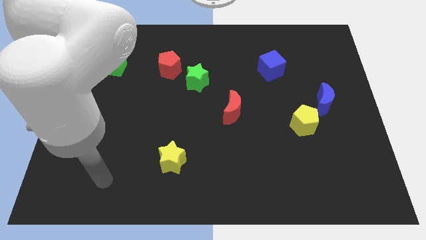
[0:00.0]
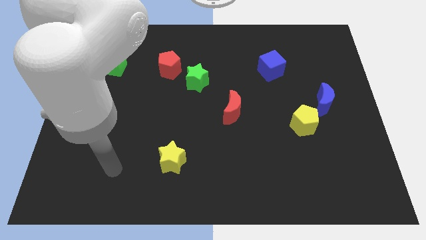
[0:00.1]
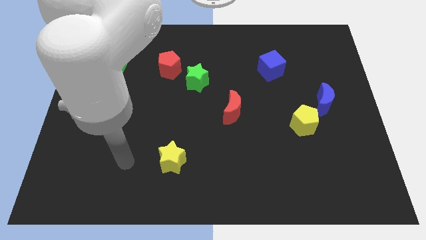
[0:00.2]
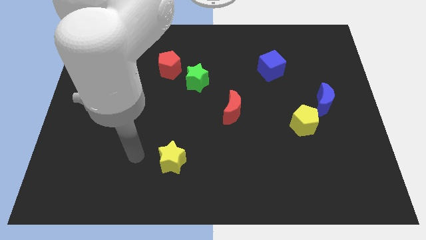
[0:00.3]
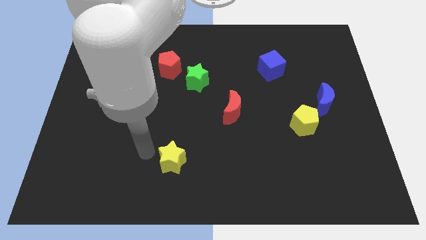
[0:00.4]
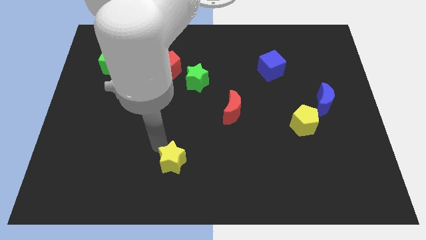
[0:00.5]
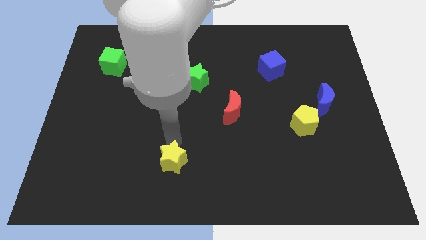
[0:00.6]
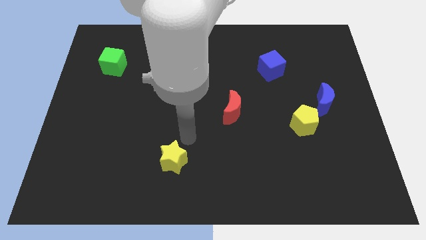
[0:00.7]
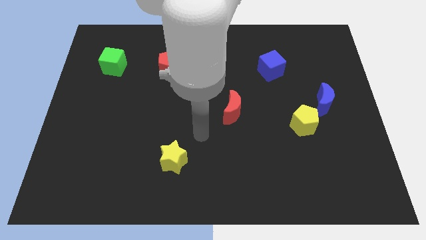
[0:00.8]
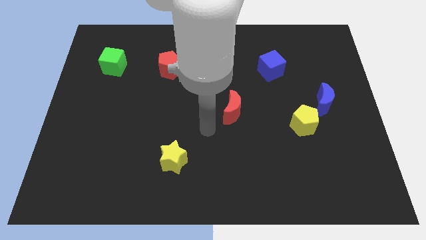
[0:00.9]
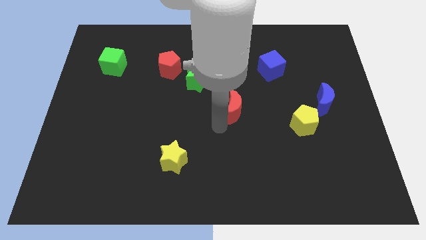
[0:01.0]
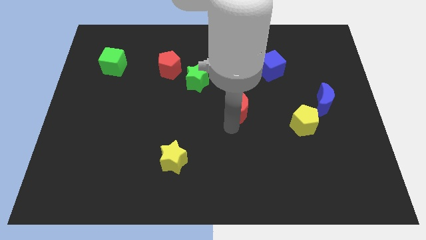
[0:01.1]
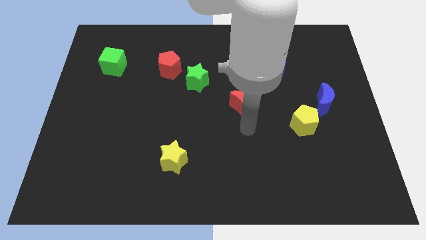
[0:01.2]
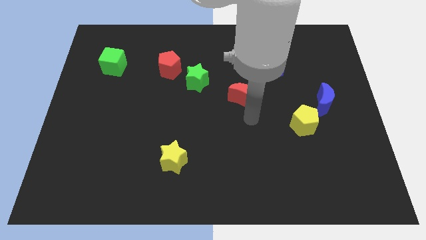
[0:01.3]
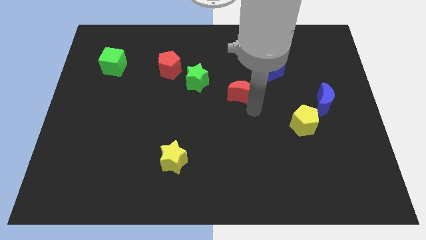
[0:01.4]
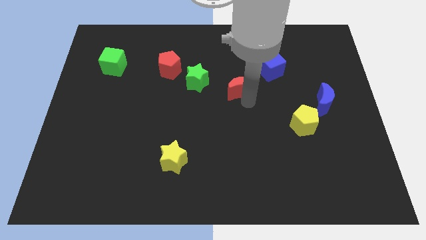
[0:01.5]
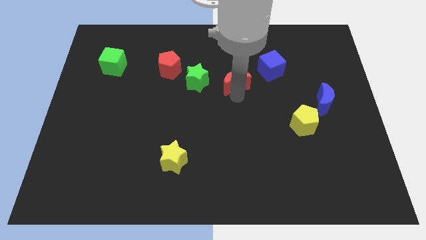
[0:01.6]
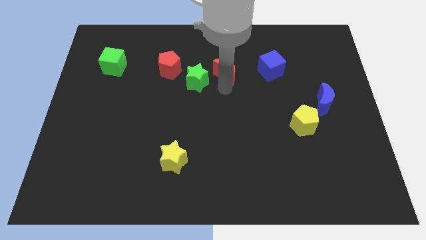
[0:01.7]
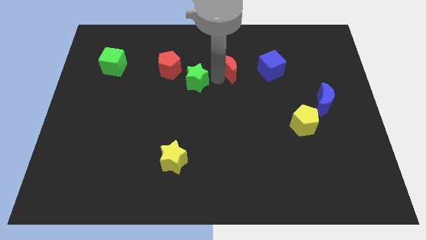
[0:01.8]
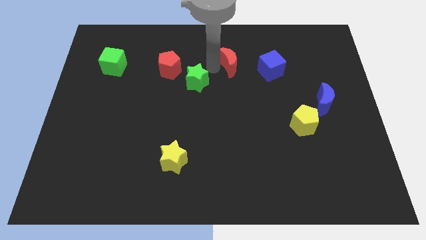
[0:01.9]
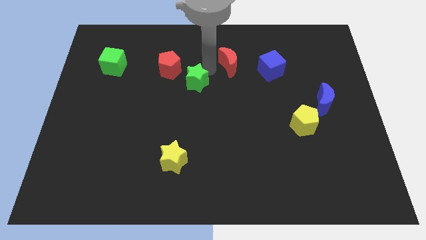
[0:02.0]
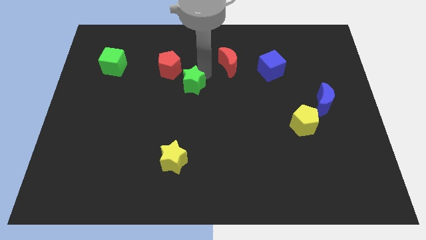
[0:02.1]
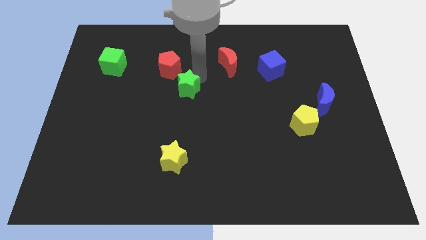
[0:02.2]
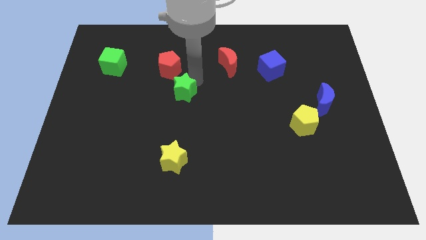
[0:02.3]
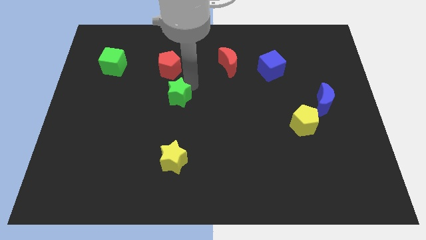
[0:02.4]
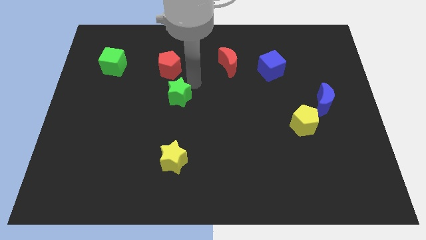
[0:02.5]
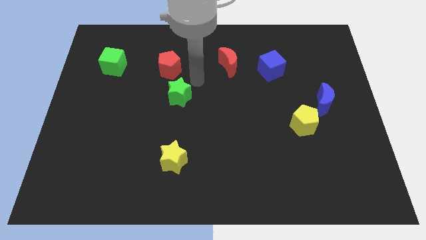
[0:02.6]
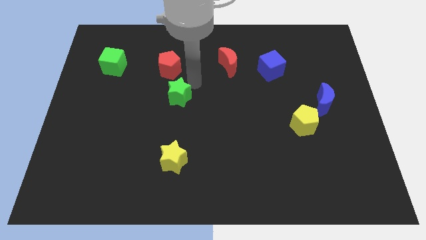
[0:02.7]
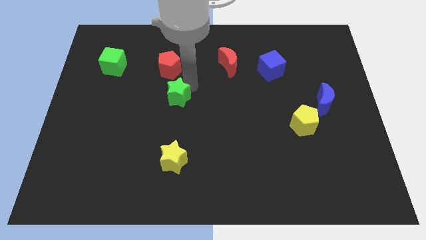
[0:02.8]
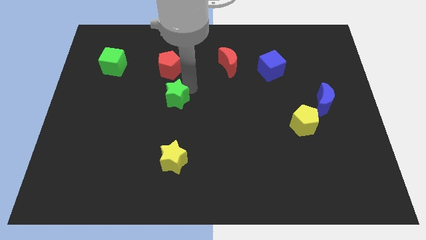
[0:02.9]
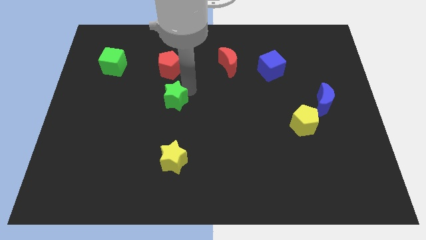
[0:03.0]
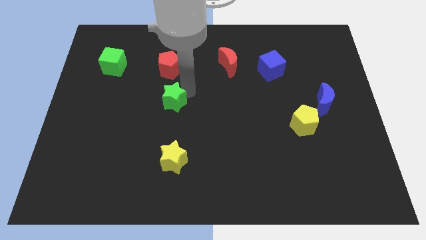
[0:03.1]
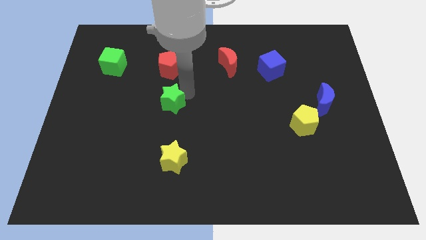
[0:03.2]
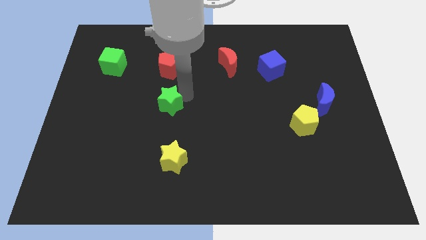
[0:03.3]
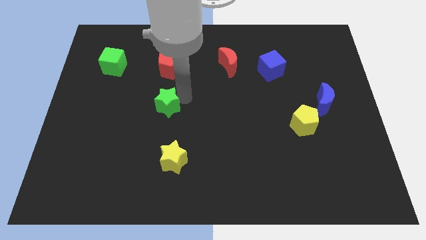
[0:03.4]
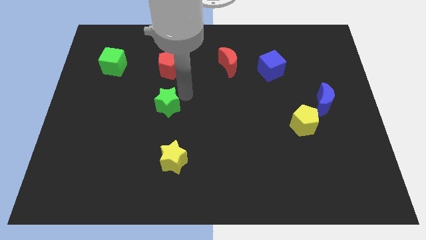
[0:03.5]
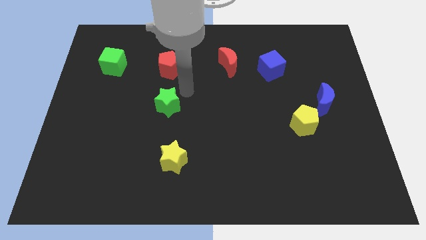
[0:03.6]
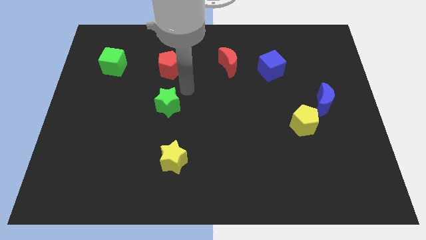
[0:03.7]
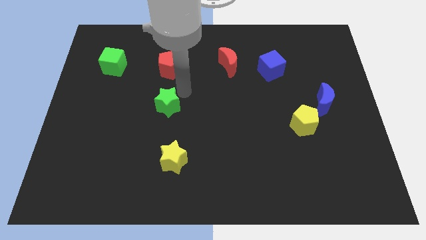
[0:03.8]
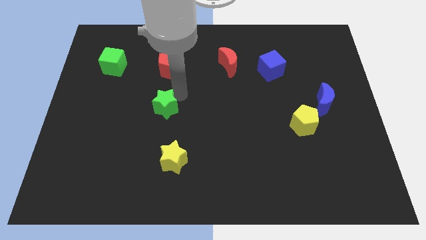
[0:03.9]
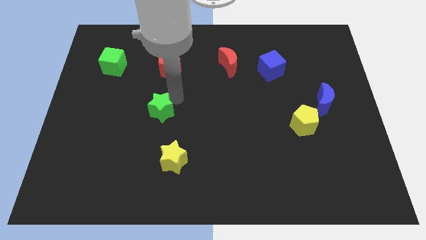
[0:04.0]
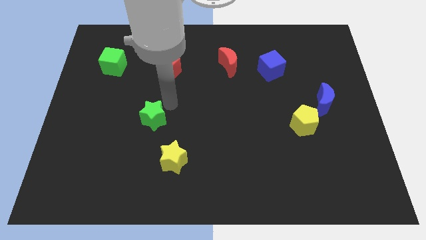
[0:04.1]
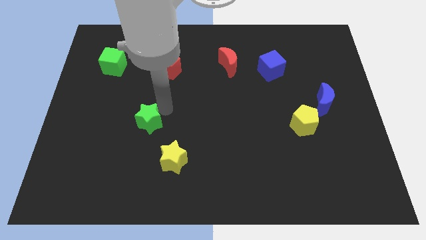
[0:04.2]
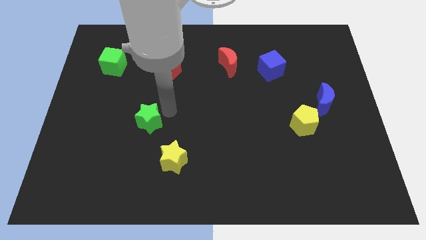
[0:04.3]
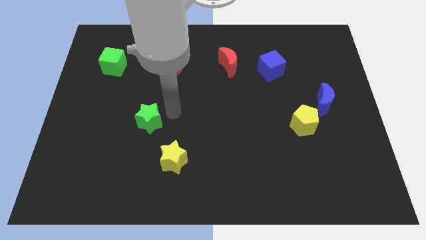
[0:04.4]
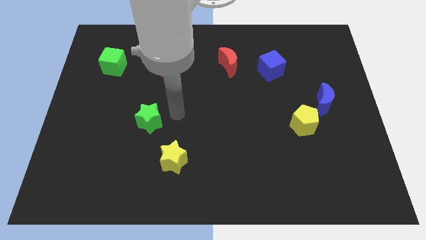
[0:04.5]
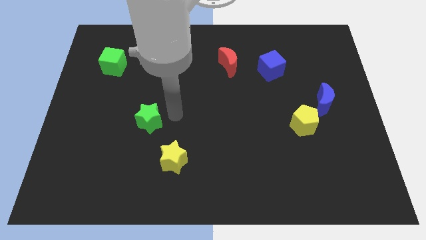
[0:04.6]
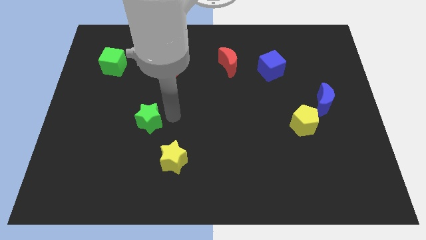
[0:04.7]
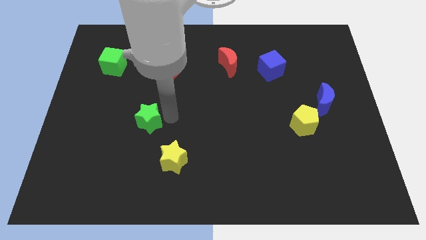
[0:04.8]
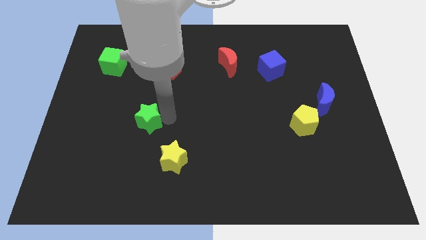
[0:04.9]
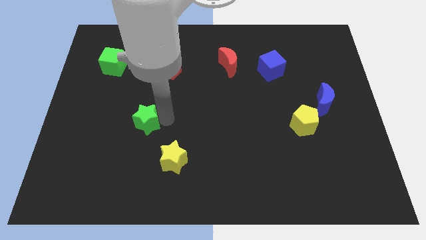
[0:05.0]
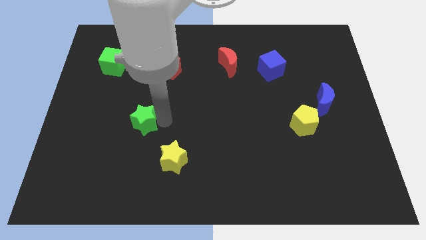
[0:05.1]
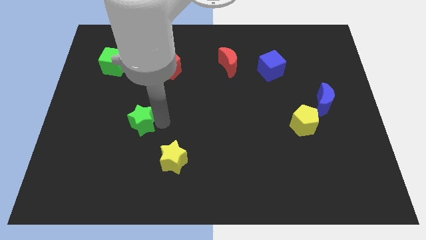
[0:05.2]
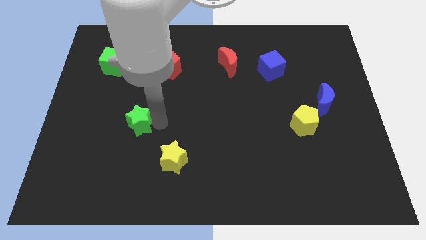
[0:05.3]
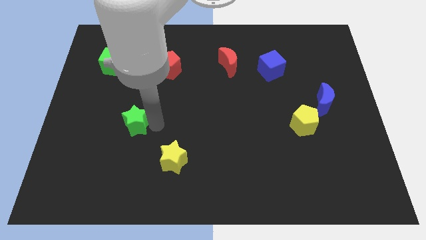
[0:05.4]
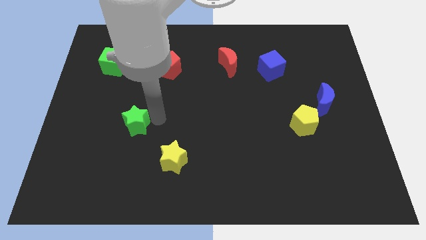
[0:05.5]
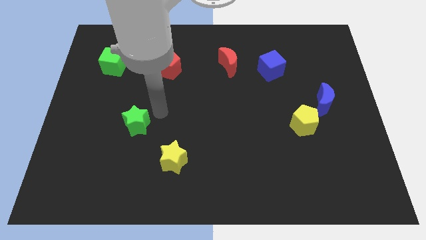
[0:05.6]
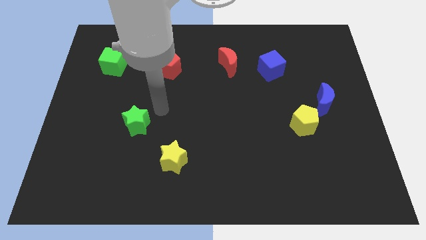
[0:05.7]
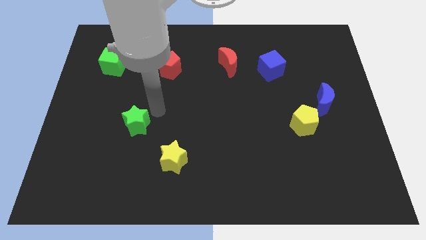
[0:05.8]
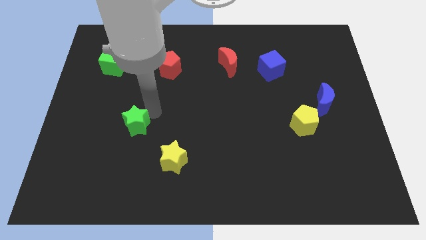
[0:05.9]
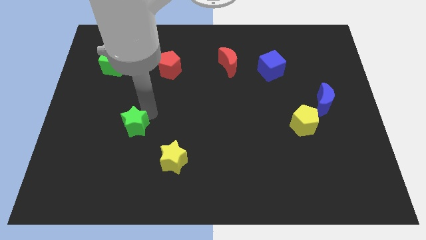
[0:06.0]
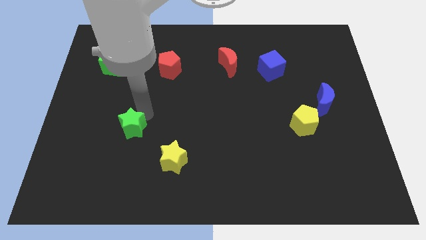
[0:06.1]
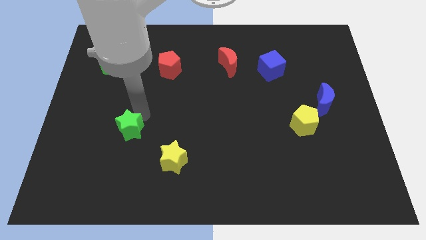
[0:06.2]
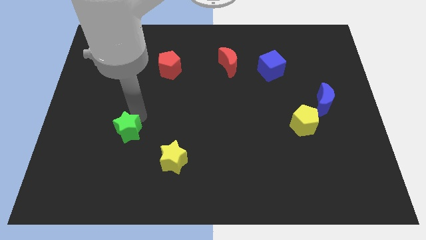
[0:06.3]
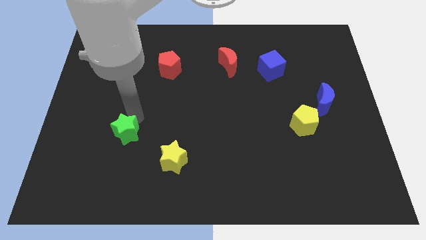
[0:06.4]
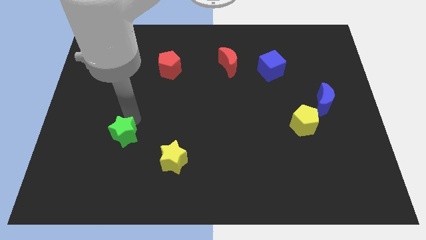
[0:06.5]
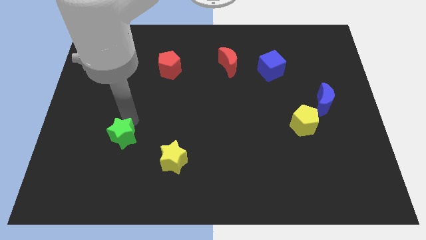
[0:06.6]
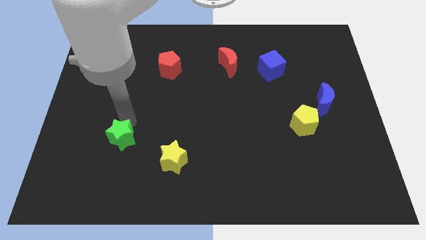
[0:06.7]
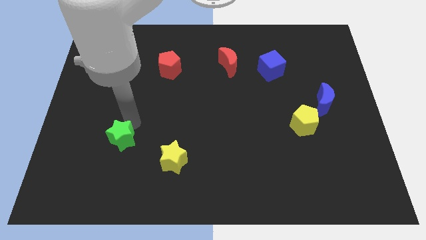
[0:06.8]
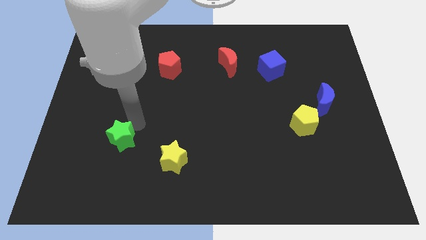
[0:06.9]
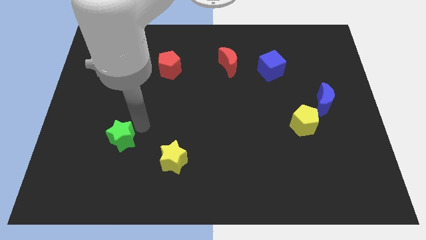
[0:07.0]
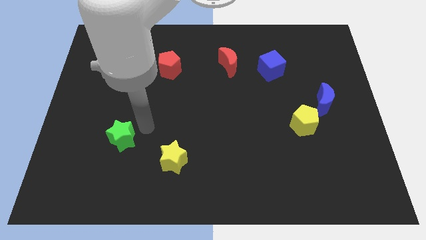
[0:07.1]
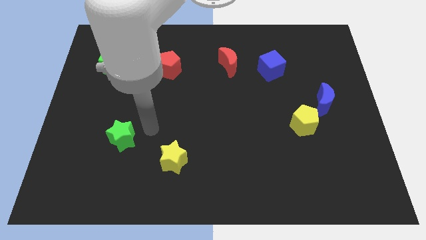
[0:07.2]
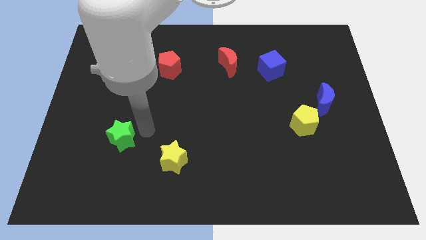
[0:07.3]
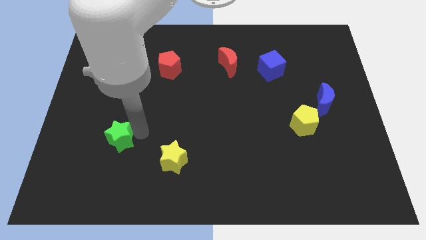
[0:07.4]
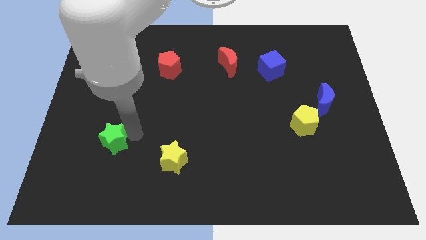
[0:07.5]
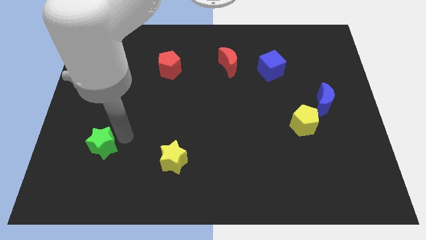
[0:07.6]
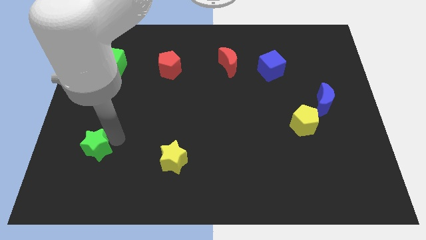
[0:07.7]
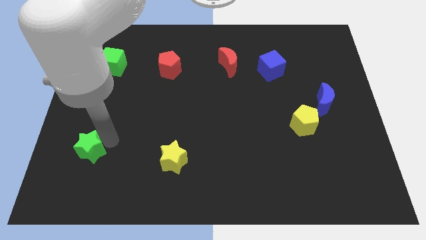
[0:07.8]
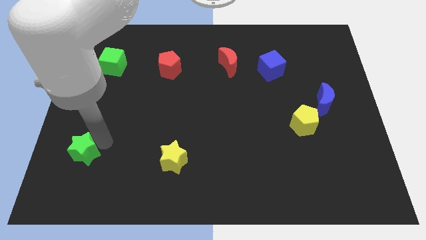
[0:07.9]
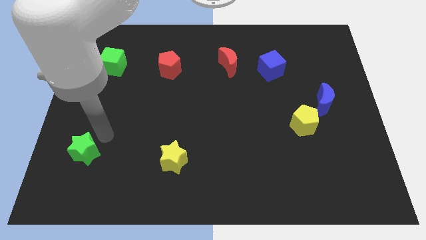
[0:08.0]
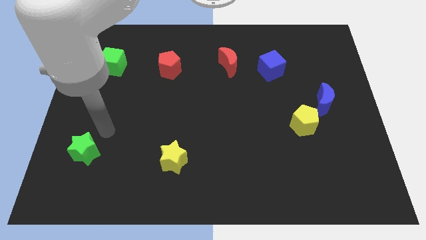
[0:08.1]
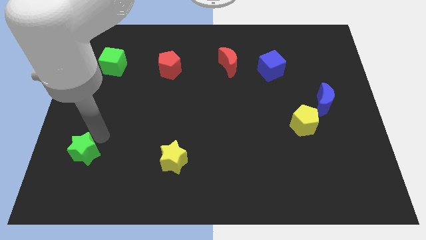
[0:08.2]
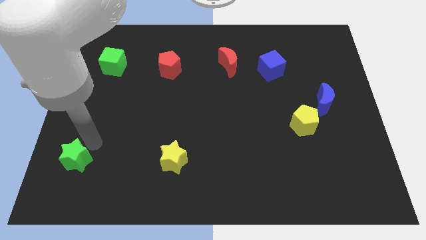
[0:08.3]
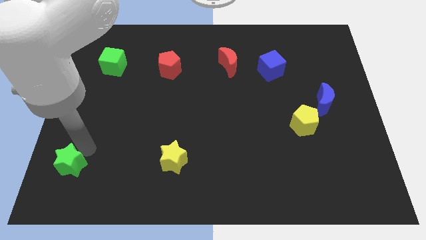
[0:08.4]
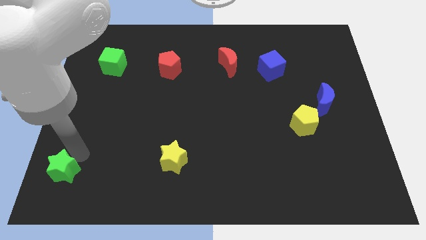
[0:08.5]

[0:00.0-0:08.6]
move the green star to the bottom left
